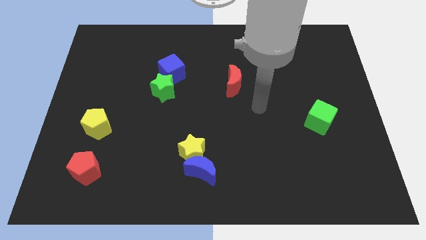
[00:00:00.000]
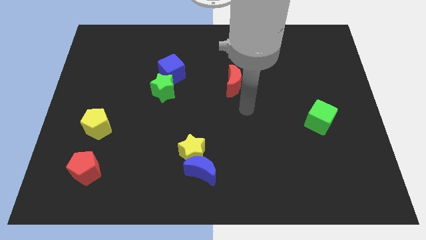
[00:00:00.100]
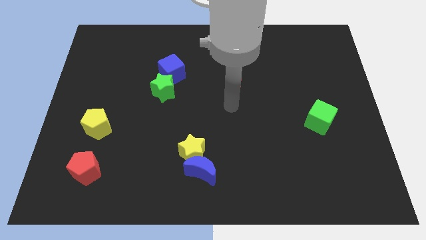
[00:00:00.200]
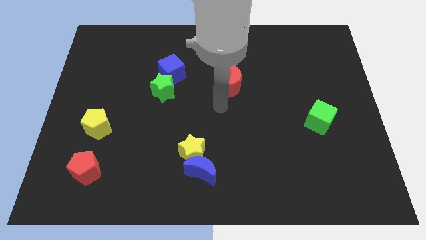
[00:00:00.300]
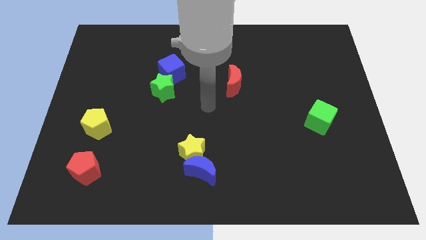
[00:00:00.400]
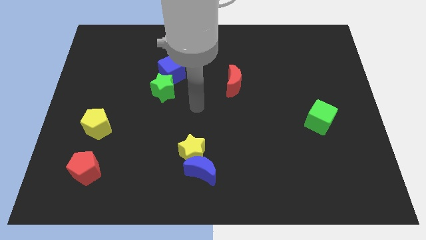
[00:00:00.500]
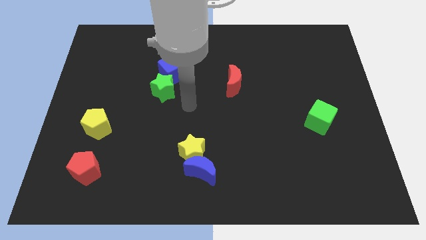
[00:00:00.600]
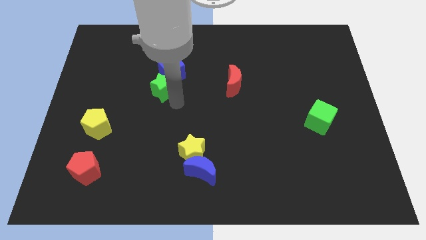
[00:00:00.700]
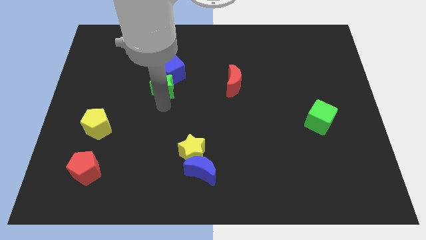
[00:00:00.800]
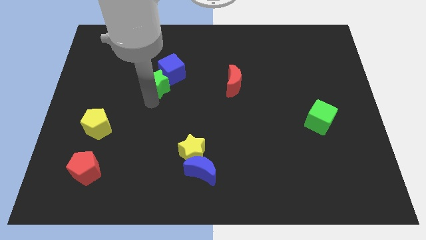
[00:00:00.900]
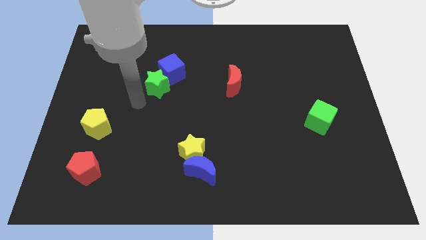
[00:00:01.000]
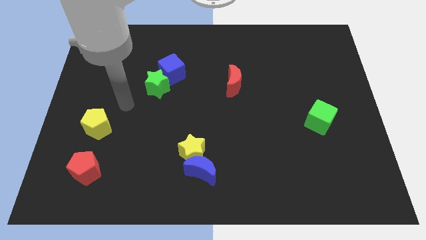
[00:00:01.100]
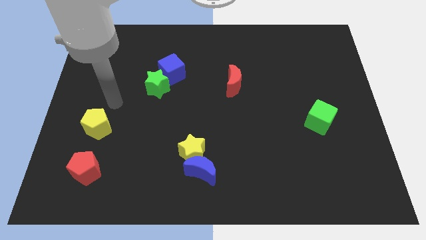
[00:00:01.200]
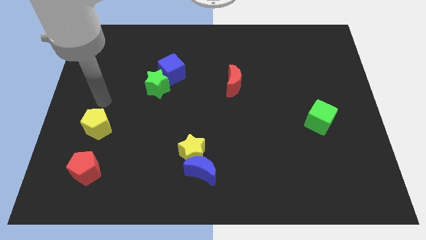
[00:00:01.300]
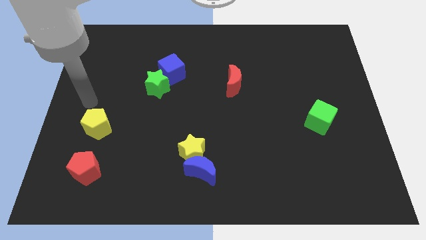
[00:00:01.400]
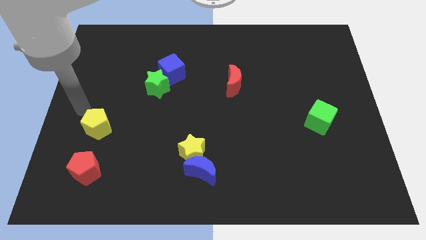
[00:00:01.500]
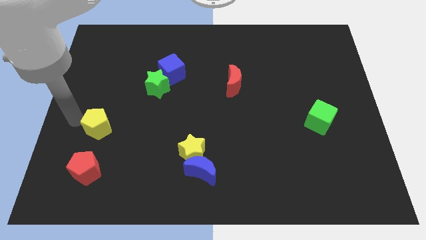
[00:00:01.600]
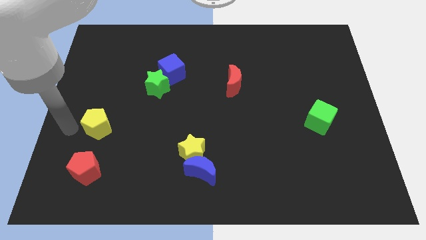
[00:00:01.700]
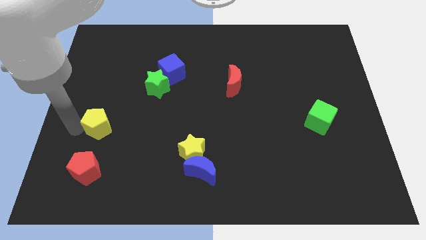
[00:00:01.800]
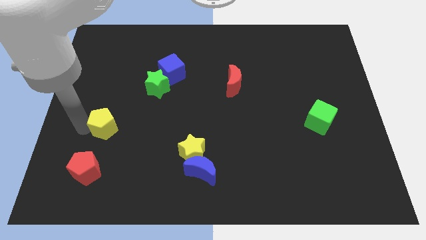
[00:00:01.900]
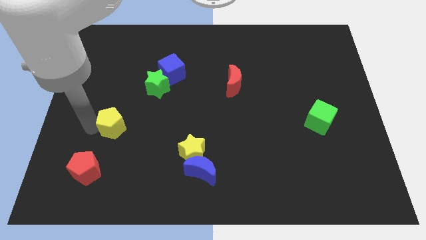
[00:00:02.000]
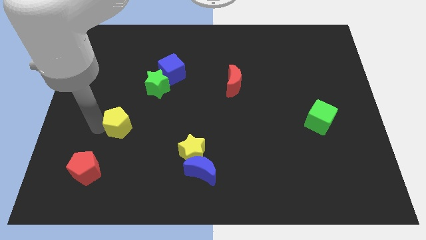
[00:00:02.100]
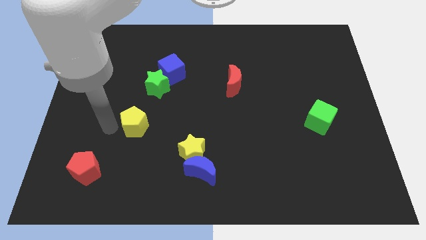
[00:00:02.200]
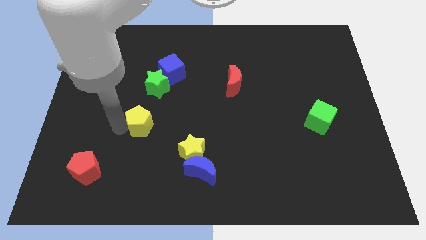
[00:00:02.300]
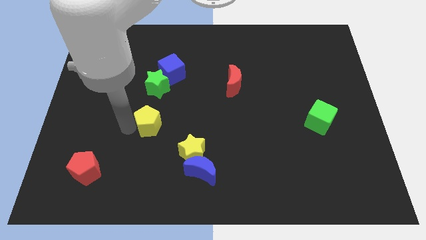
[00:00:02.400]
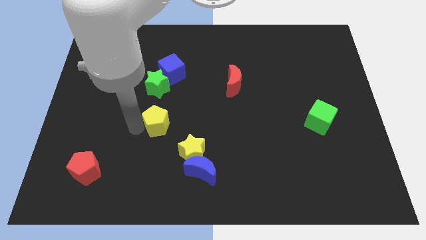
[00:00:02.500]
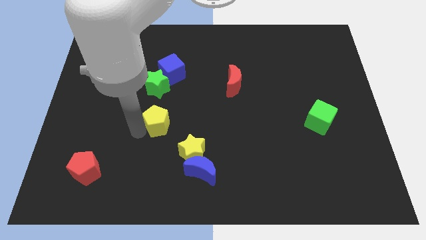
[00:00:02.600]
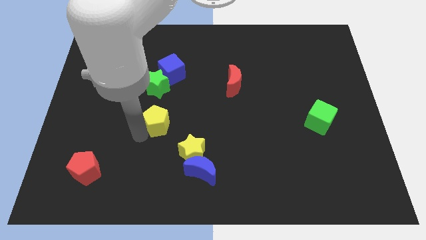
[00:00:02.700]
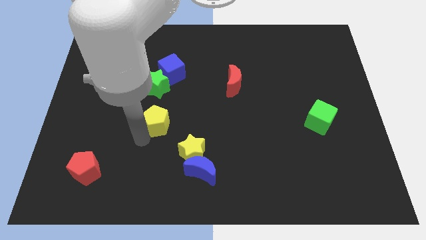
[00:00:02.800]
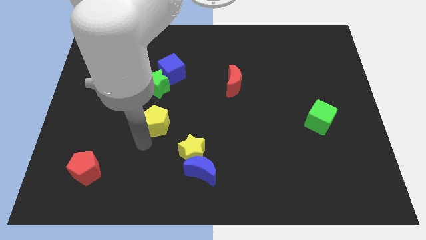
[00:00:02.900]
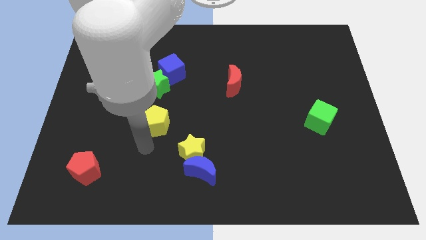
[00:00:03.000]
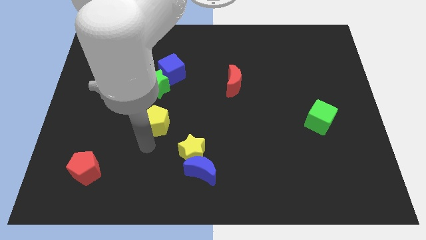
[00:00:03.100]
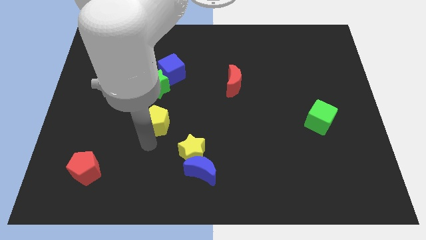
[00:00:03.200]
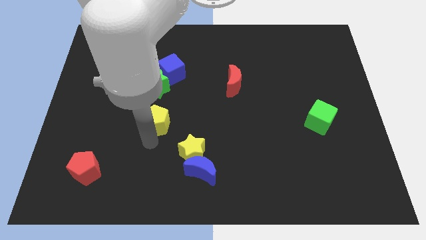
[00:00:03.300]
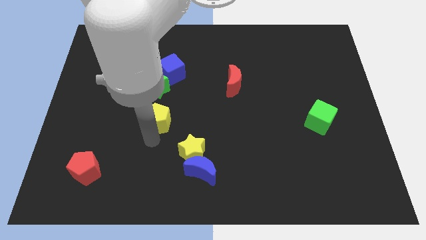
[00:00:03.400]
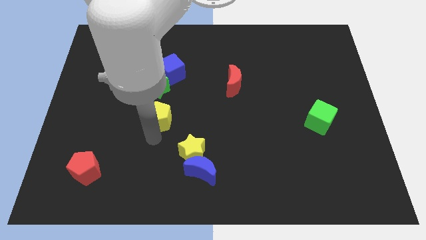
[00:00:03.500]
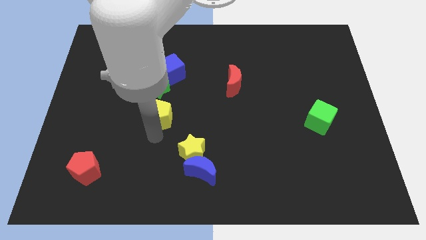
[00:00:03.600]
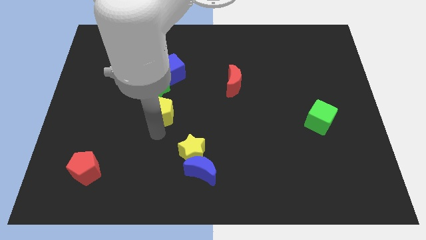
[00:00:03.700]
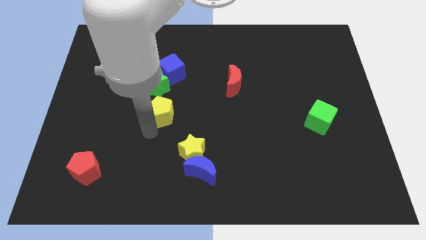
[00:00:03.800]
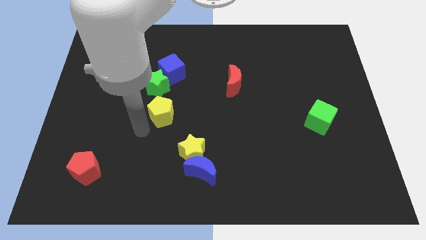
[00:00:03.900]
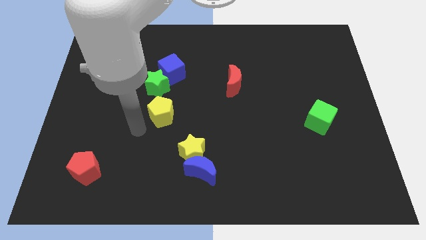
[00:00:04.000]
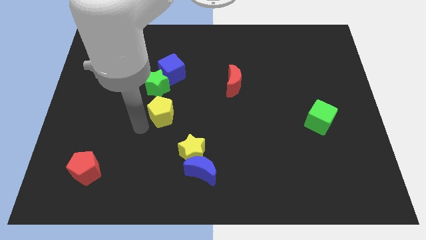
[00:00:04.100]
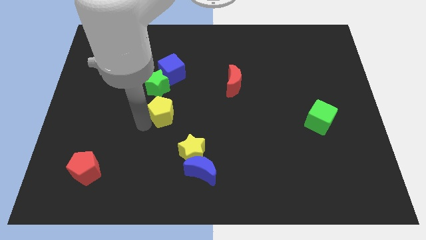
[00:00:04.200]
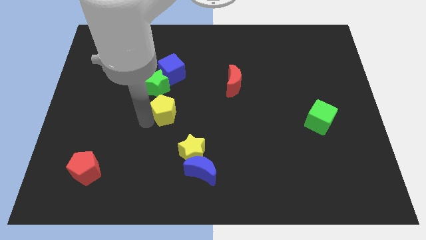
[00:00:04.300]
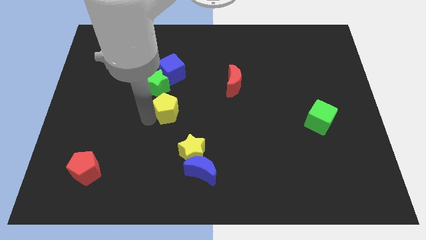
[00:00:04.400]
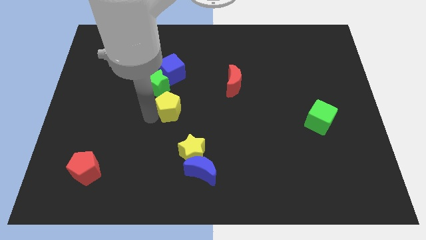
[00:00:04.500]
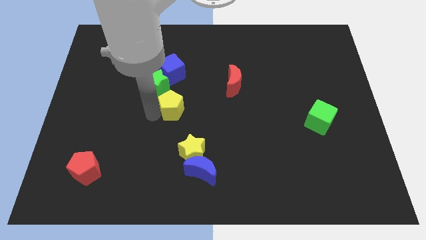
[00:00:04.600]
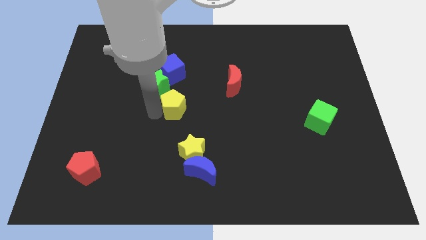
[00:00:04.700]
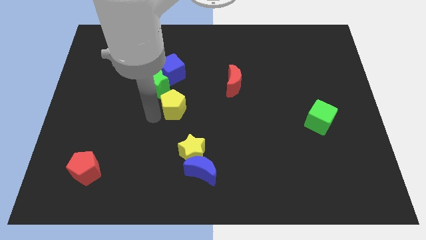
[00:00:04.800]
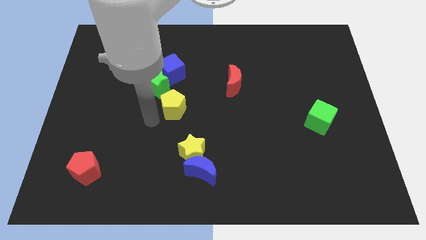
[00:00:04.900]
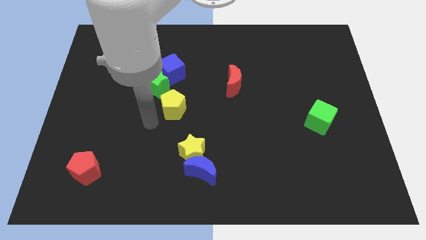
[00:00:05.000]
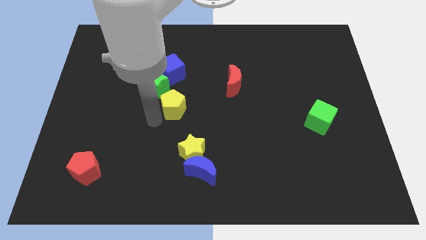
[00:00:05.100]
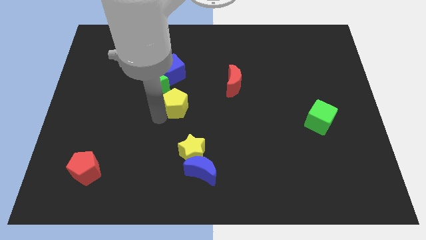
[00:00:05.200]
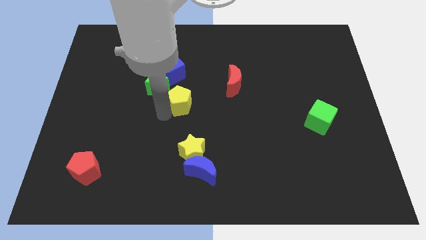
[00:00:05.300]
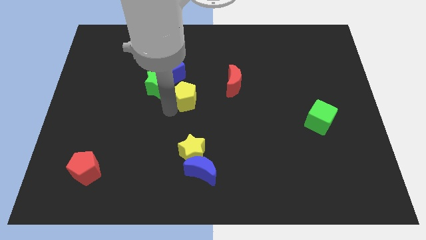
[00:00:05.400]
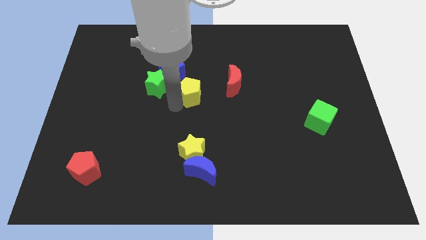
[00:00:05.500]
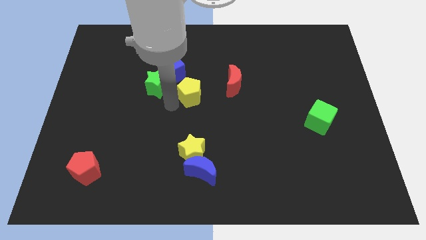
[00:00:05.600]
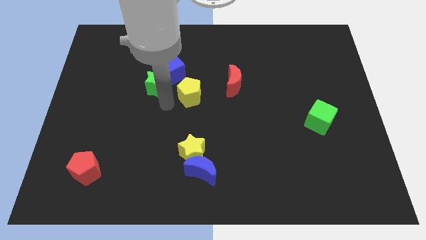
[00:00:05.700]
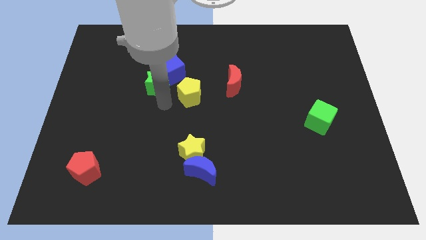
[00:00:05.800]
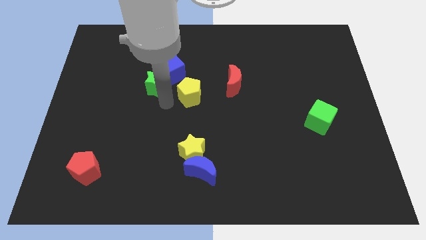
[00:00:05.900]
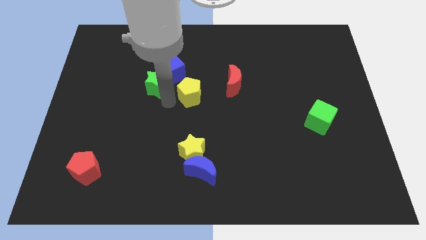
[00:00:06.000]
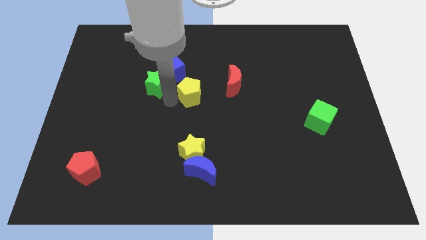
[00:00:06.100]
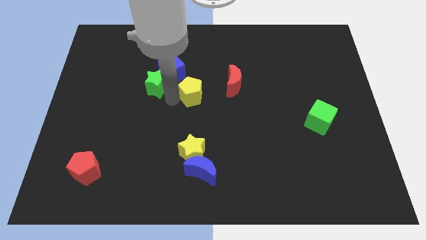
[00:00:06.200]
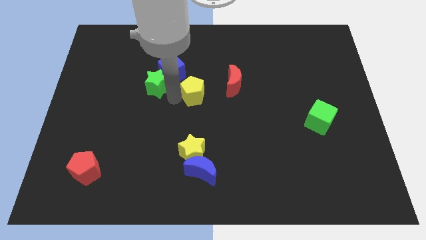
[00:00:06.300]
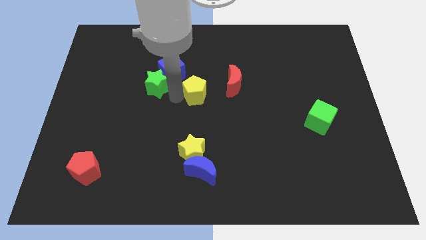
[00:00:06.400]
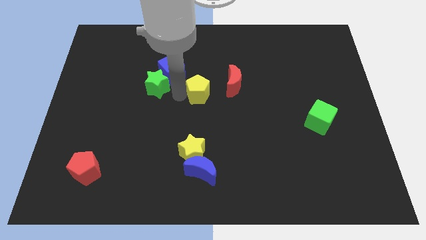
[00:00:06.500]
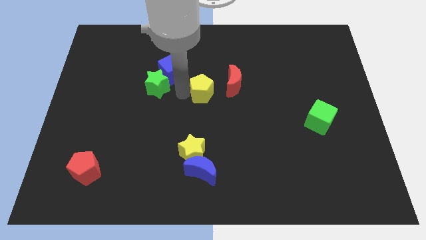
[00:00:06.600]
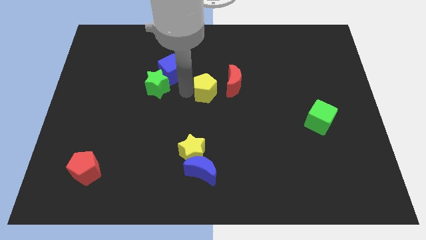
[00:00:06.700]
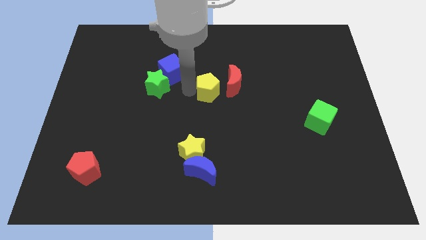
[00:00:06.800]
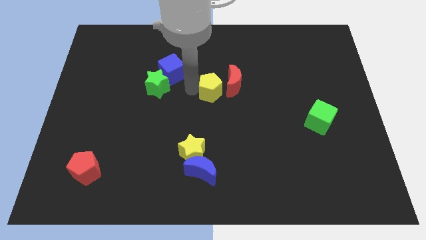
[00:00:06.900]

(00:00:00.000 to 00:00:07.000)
move the yellow pentagon close to the red moon
